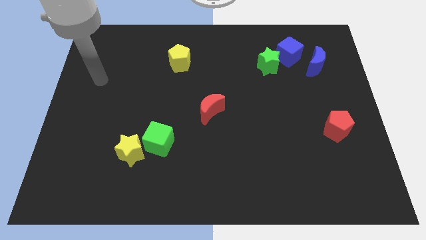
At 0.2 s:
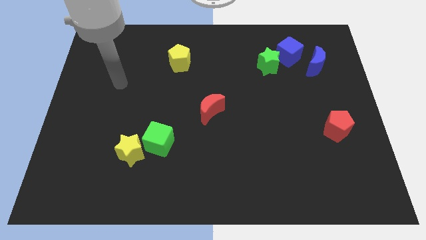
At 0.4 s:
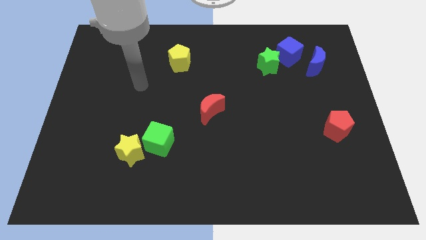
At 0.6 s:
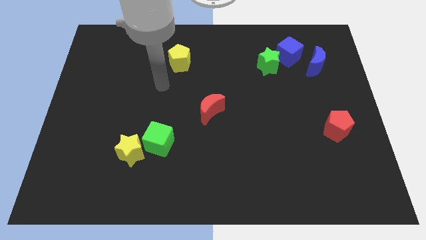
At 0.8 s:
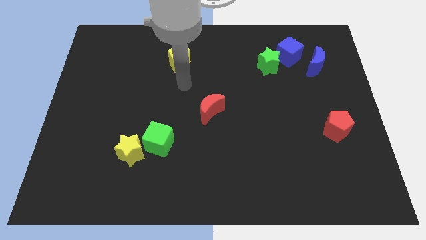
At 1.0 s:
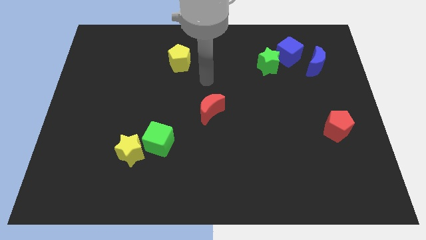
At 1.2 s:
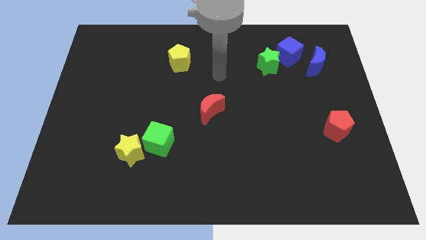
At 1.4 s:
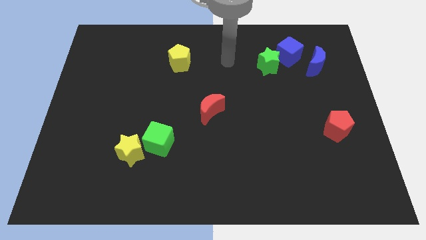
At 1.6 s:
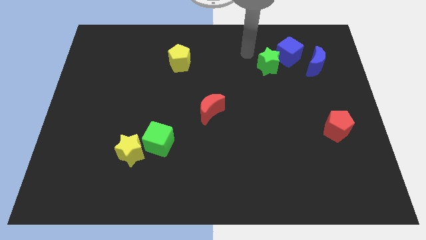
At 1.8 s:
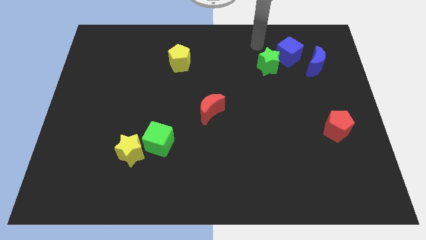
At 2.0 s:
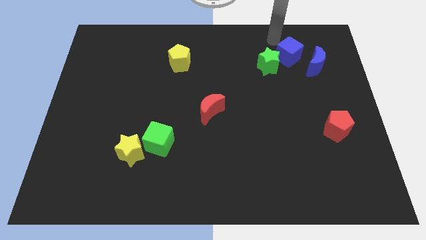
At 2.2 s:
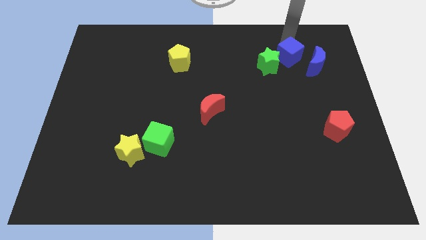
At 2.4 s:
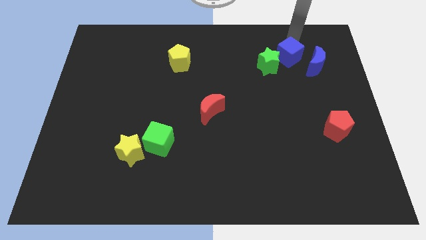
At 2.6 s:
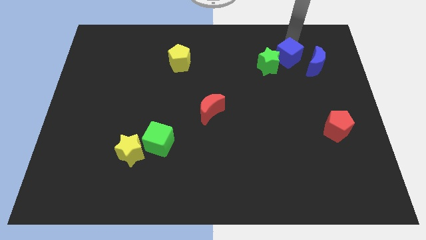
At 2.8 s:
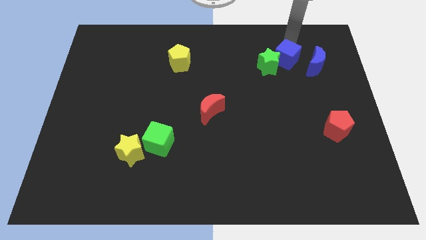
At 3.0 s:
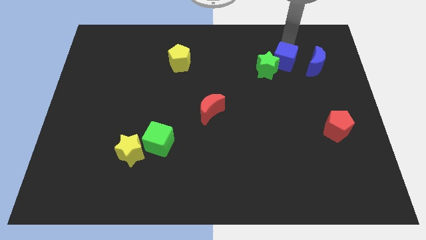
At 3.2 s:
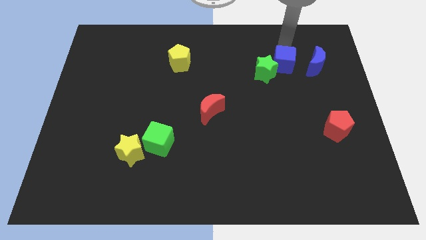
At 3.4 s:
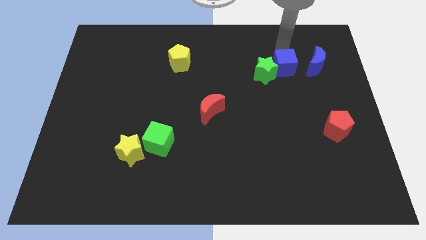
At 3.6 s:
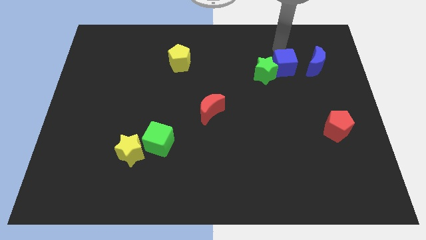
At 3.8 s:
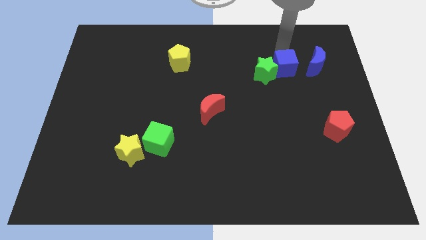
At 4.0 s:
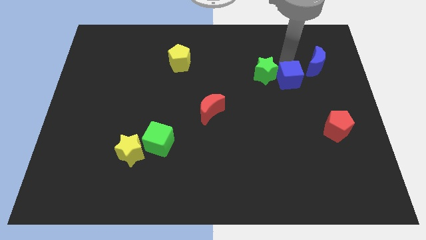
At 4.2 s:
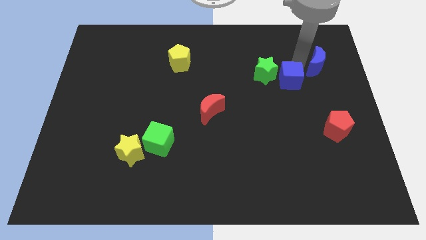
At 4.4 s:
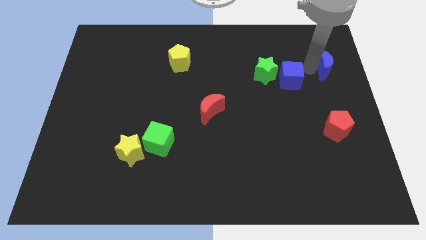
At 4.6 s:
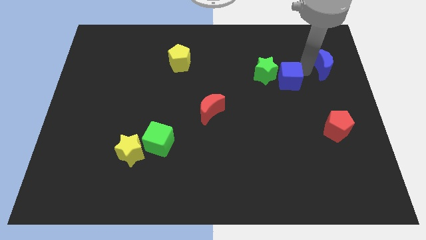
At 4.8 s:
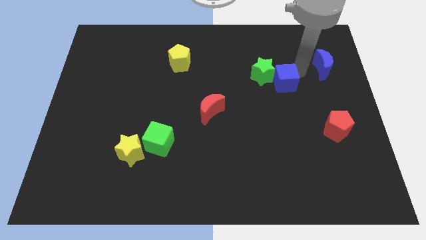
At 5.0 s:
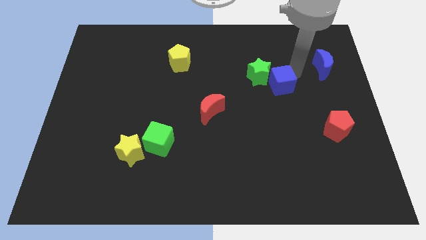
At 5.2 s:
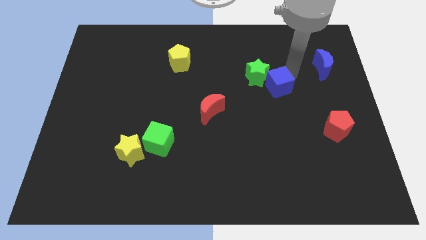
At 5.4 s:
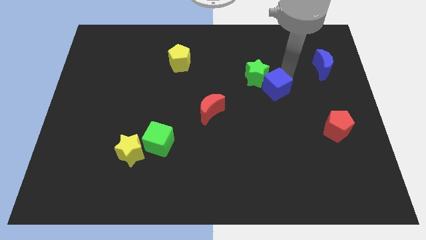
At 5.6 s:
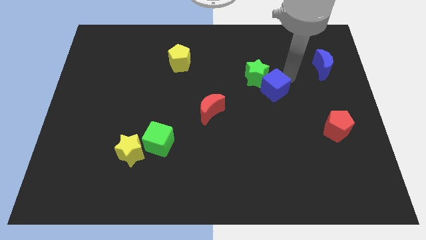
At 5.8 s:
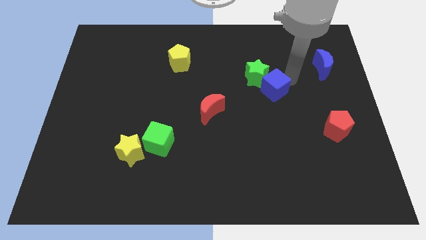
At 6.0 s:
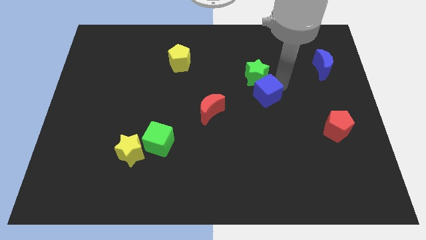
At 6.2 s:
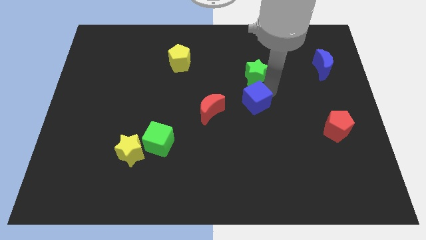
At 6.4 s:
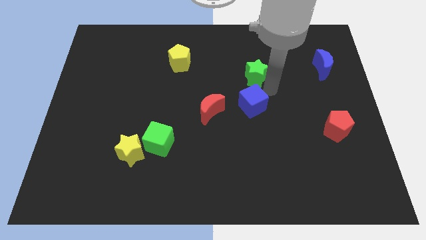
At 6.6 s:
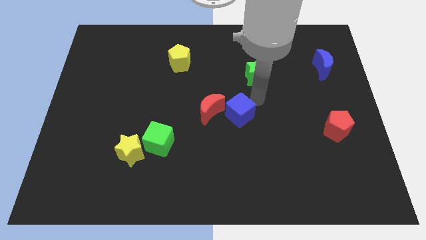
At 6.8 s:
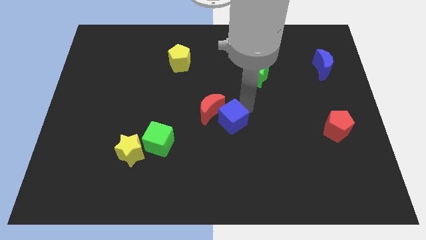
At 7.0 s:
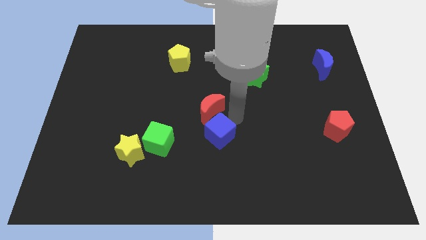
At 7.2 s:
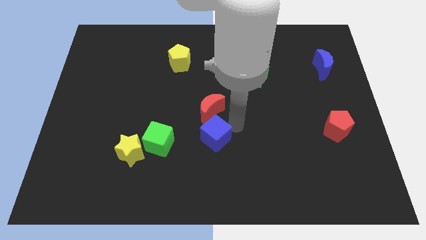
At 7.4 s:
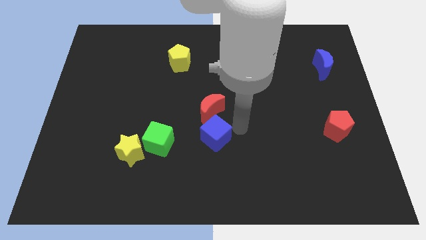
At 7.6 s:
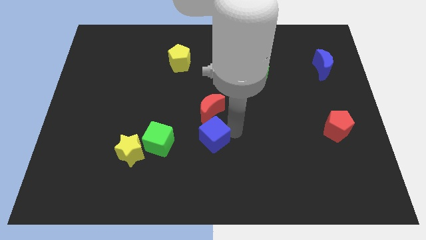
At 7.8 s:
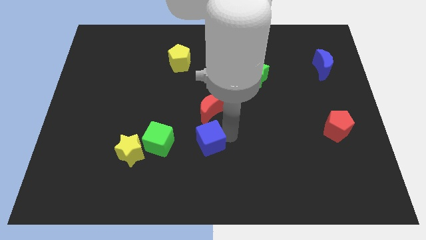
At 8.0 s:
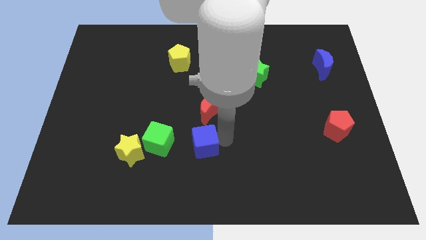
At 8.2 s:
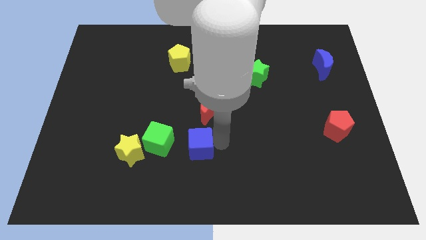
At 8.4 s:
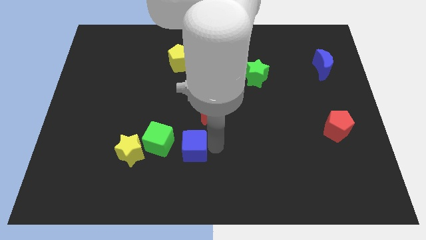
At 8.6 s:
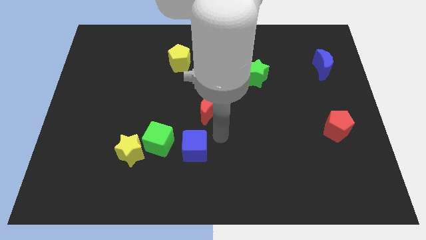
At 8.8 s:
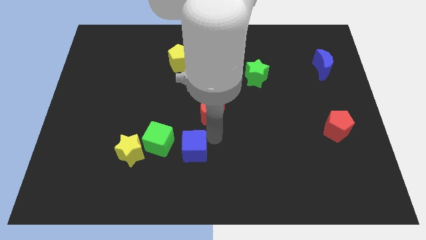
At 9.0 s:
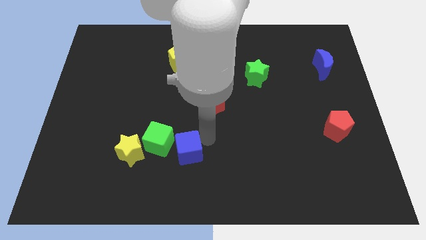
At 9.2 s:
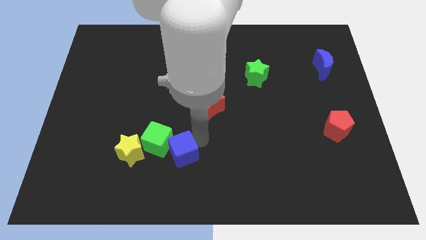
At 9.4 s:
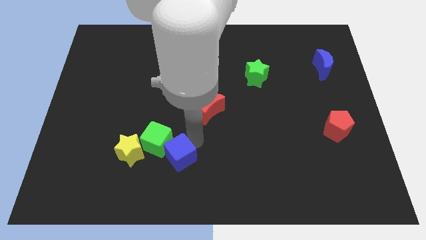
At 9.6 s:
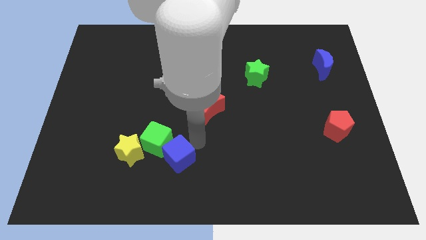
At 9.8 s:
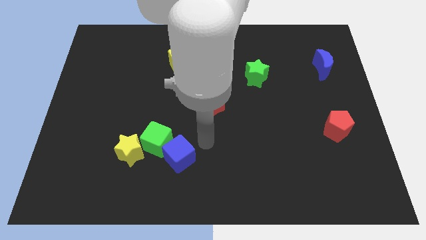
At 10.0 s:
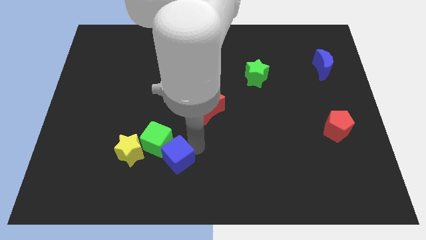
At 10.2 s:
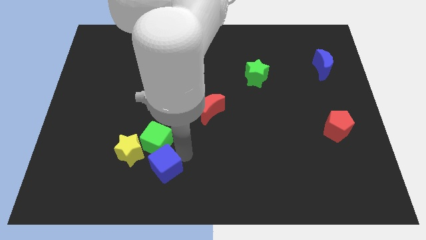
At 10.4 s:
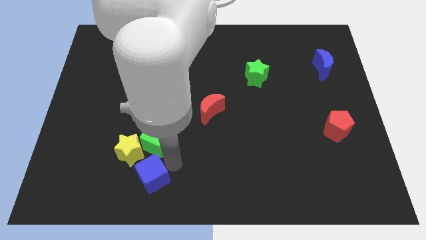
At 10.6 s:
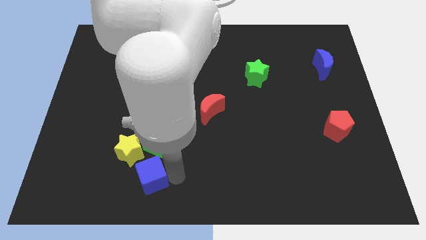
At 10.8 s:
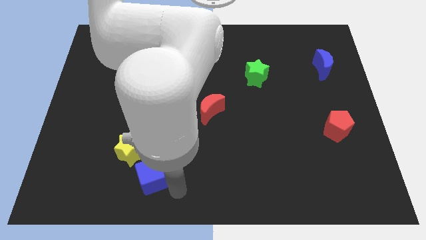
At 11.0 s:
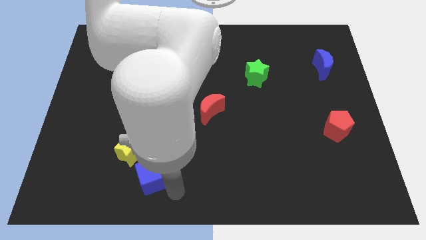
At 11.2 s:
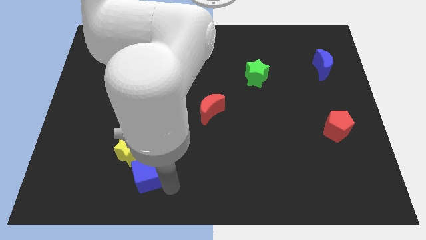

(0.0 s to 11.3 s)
slide the blue cube to the bottom left side of the green cube

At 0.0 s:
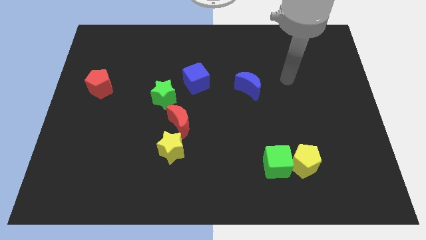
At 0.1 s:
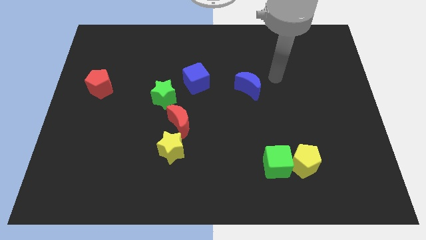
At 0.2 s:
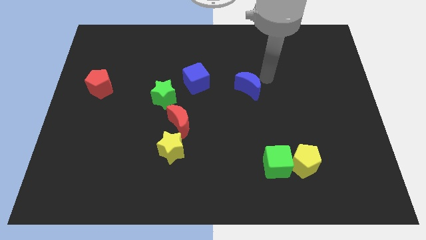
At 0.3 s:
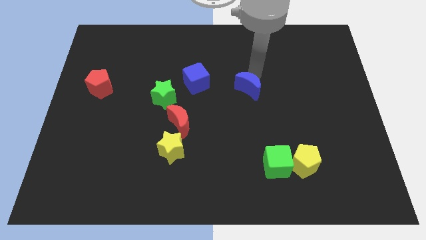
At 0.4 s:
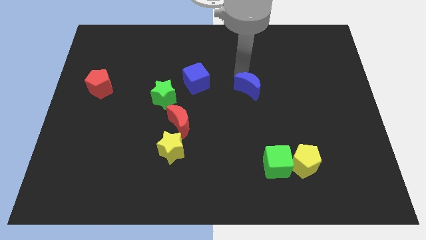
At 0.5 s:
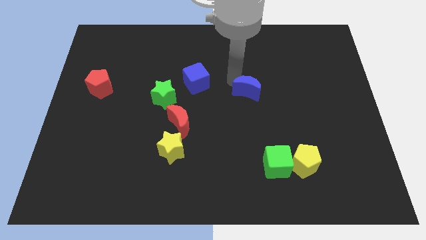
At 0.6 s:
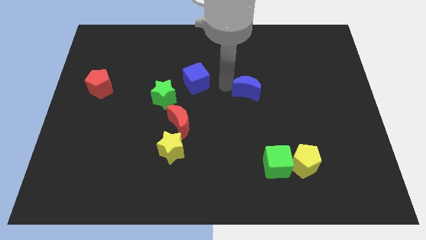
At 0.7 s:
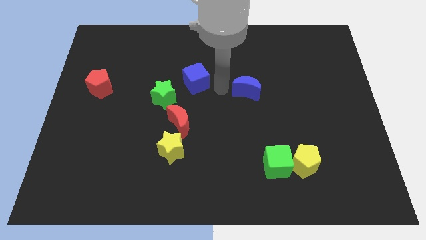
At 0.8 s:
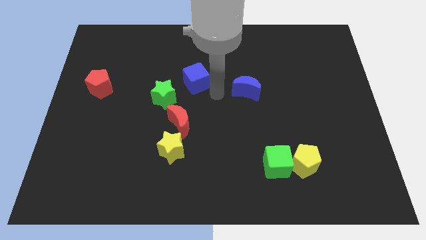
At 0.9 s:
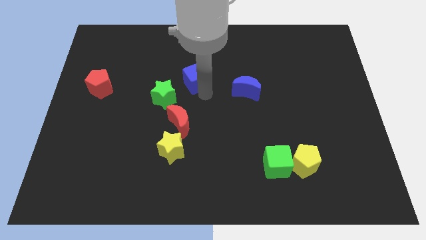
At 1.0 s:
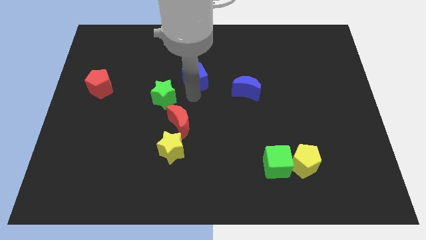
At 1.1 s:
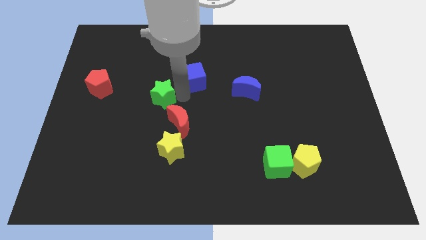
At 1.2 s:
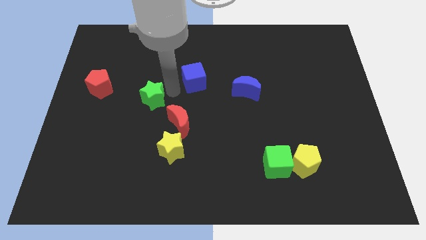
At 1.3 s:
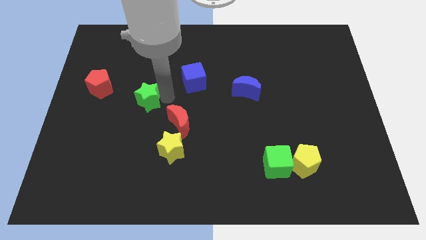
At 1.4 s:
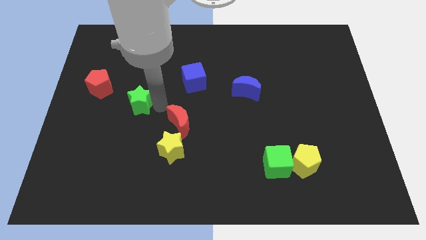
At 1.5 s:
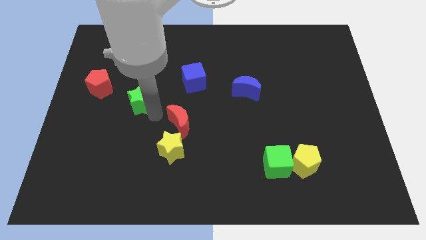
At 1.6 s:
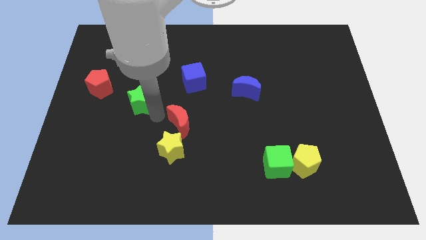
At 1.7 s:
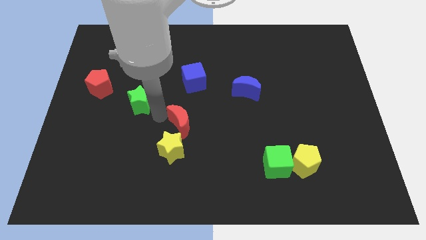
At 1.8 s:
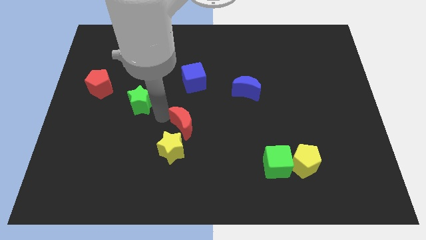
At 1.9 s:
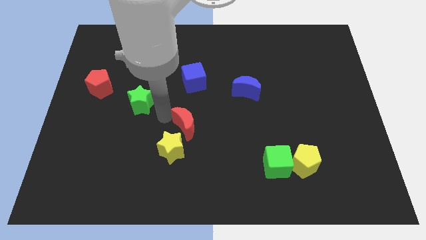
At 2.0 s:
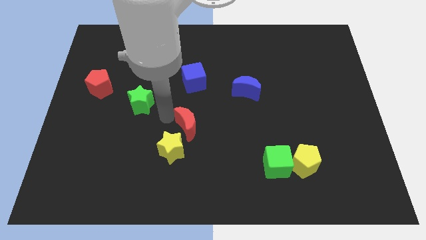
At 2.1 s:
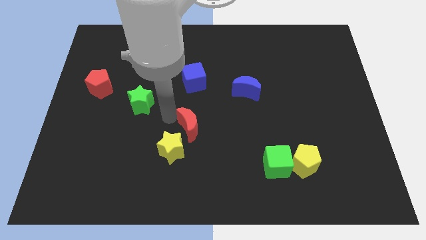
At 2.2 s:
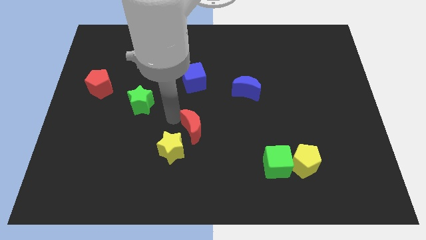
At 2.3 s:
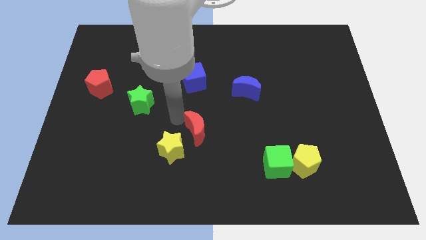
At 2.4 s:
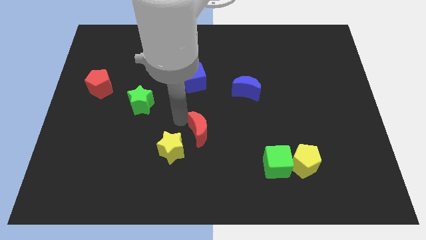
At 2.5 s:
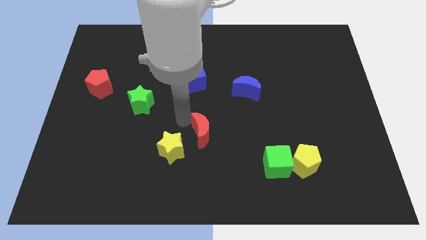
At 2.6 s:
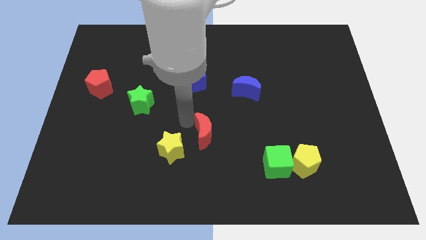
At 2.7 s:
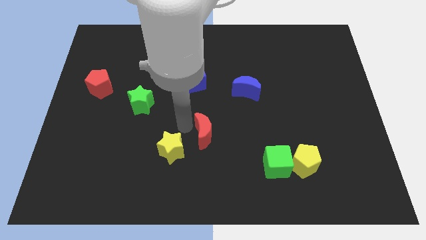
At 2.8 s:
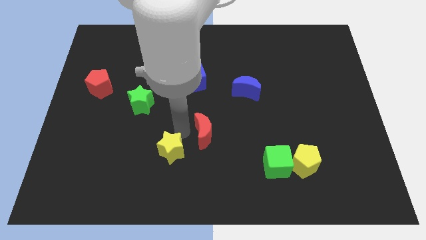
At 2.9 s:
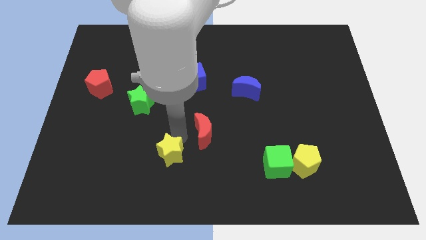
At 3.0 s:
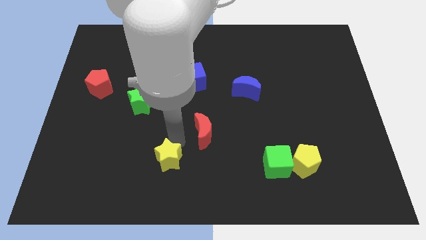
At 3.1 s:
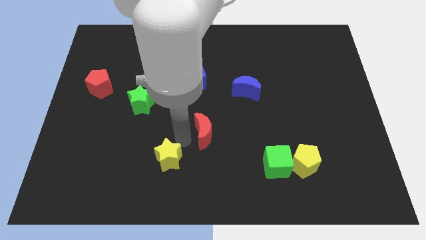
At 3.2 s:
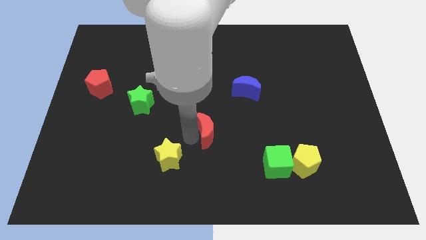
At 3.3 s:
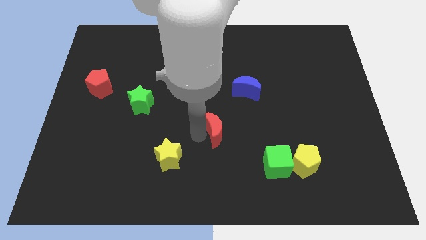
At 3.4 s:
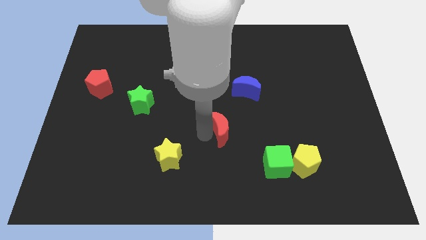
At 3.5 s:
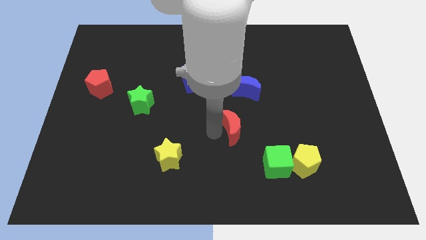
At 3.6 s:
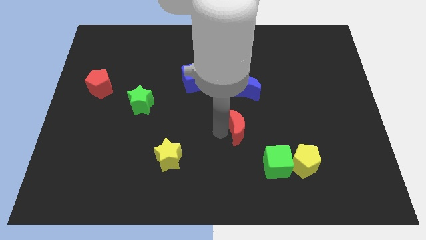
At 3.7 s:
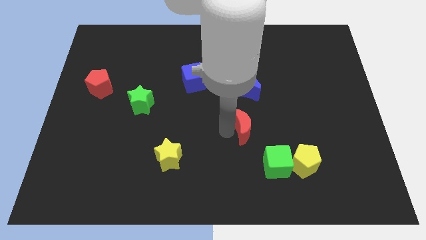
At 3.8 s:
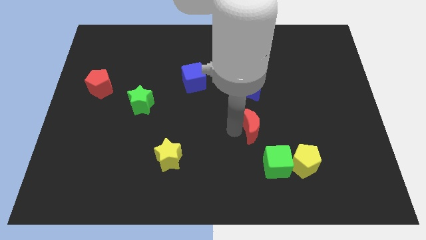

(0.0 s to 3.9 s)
push the red moon to the top side of the green cube
